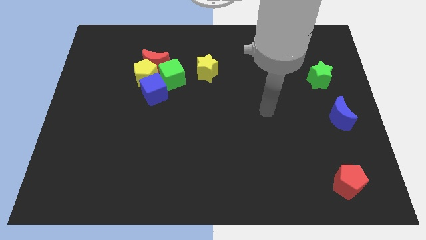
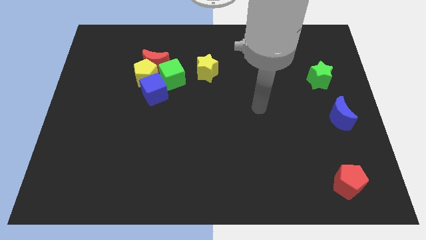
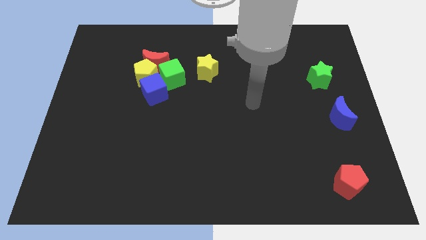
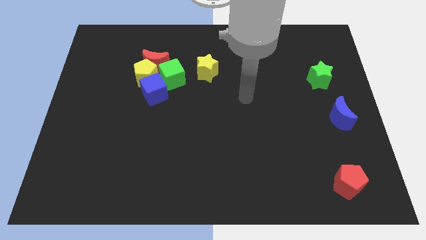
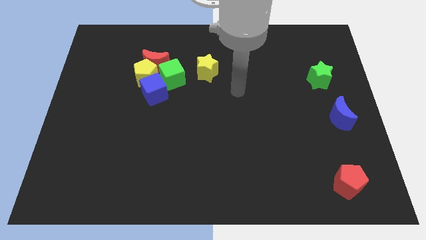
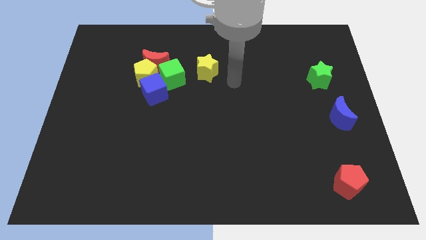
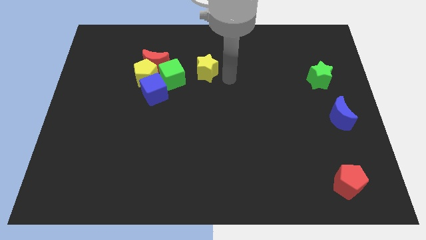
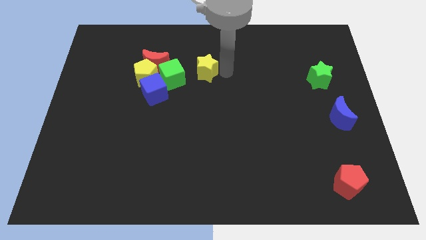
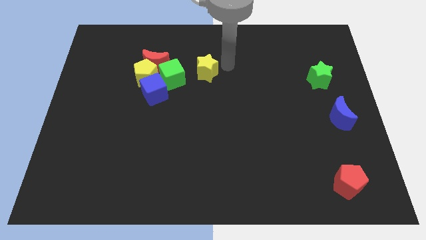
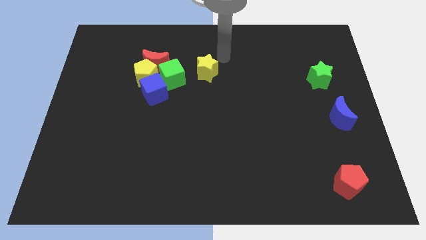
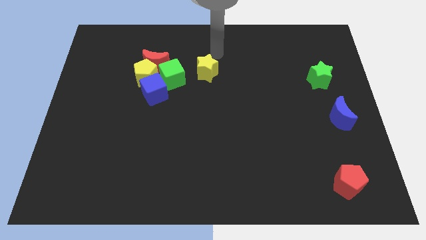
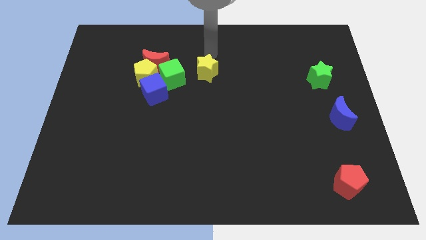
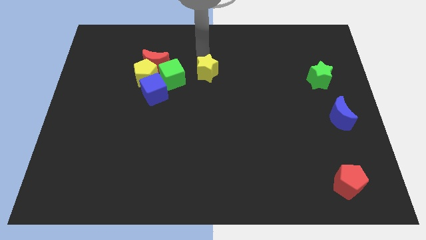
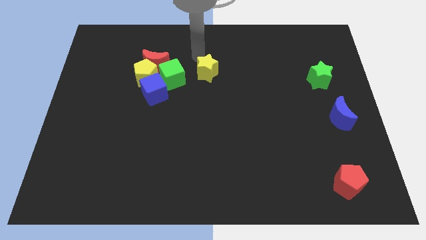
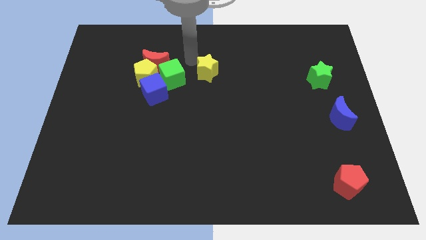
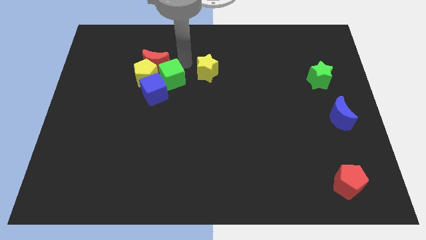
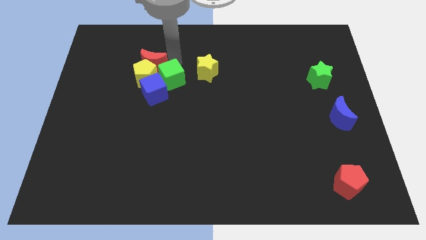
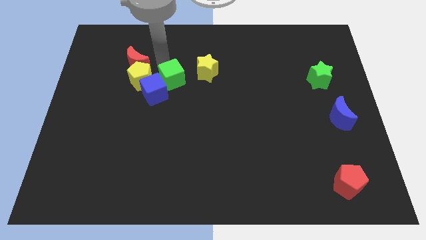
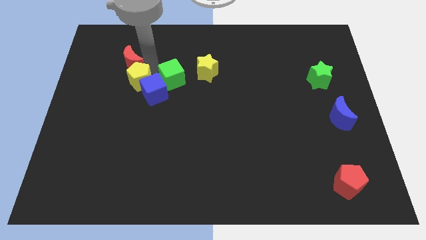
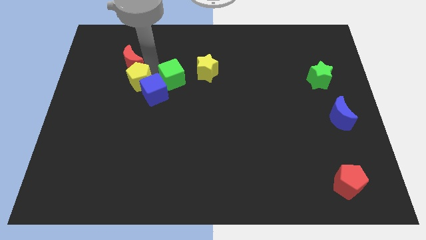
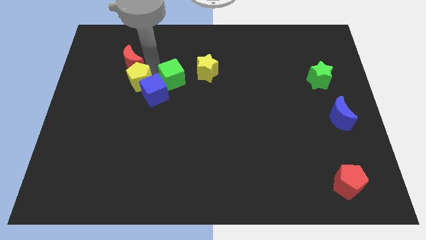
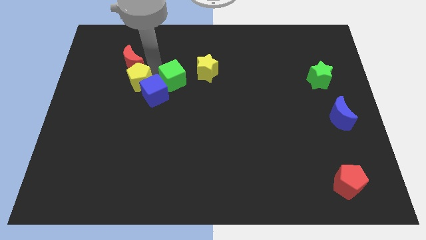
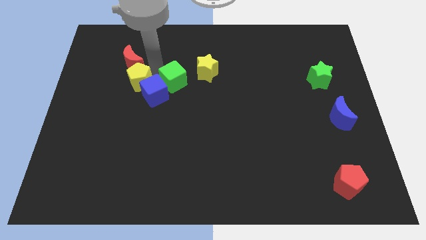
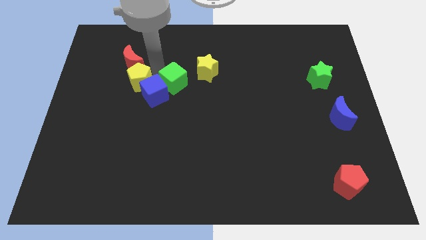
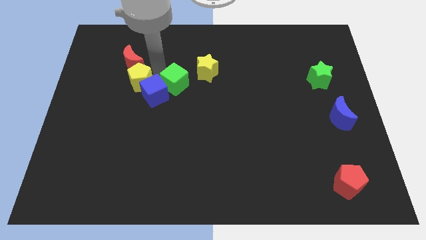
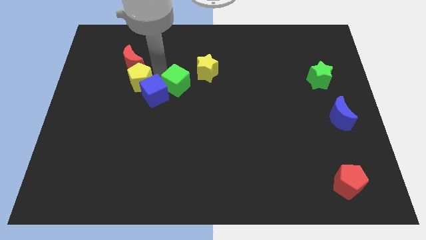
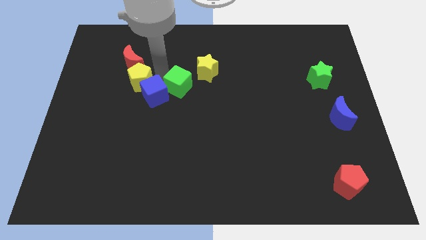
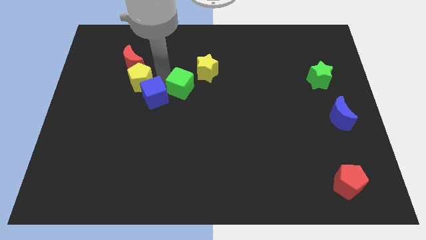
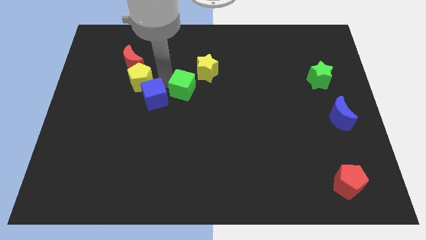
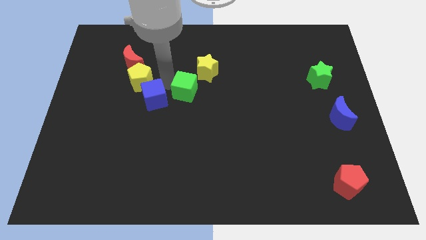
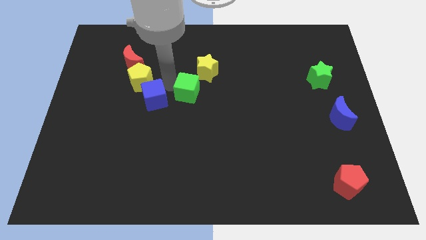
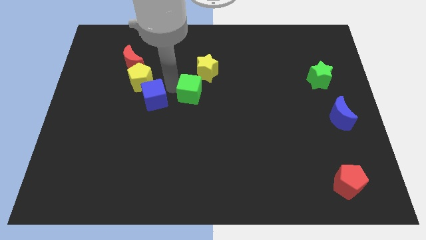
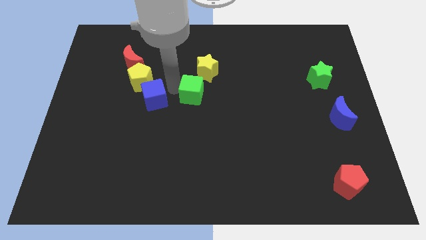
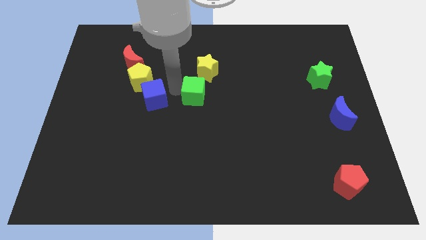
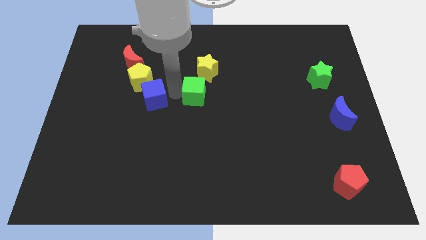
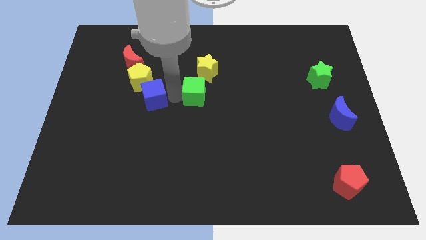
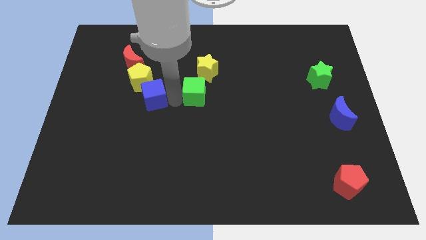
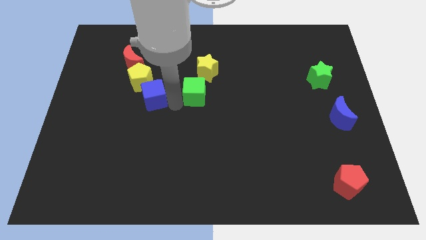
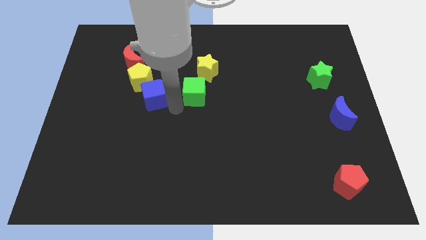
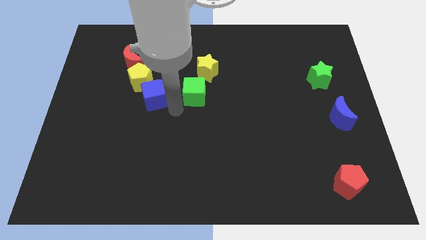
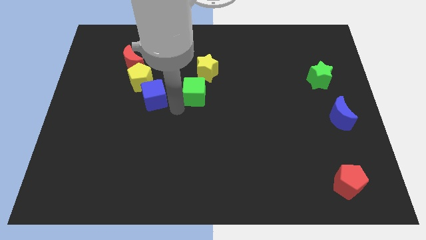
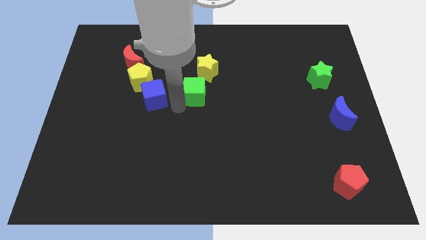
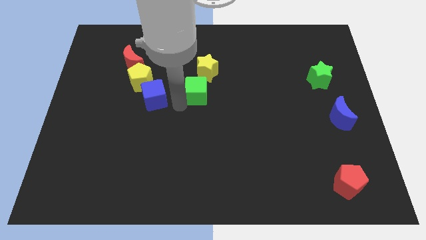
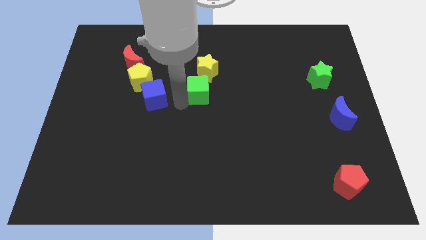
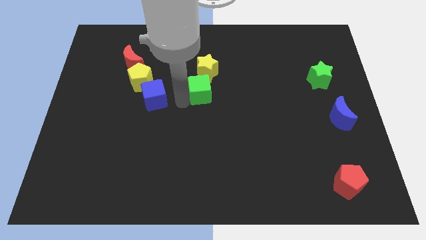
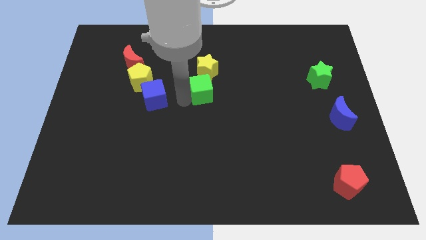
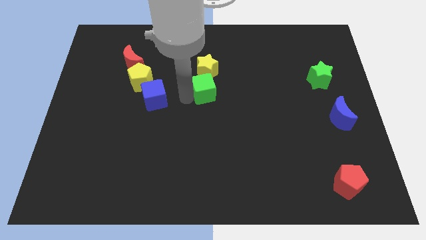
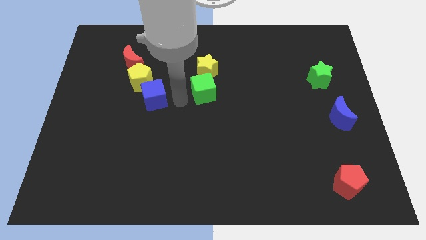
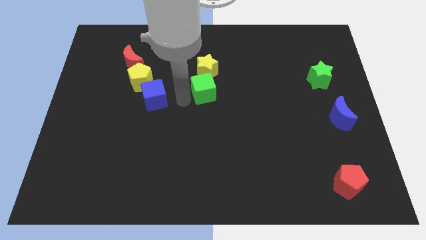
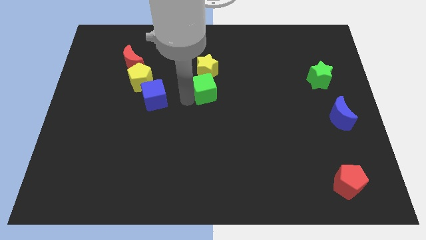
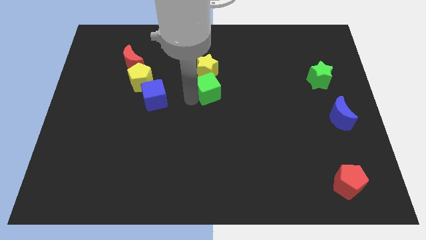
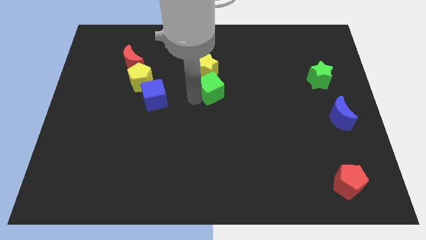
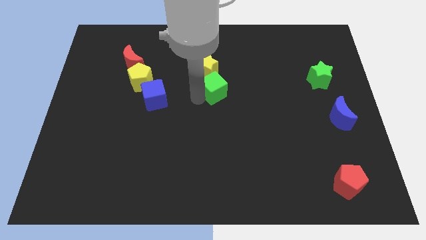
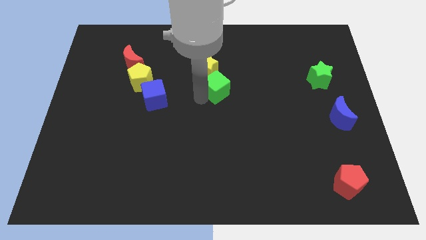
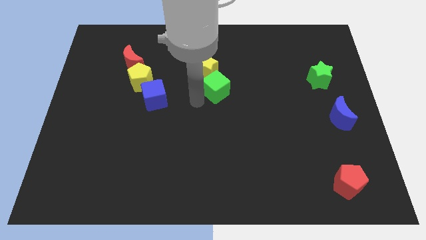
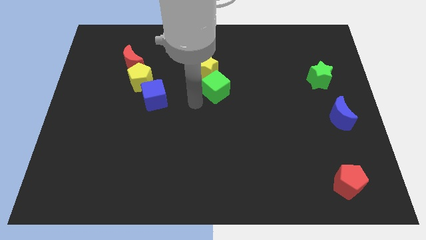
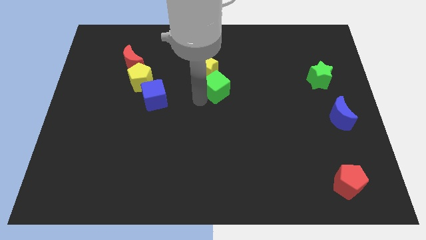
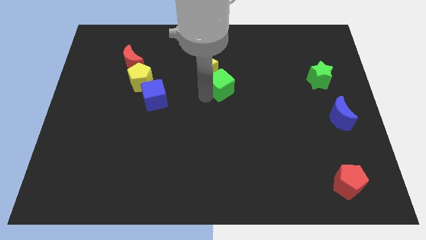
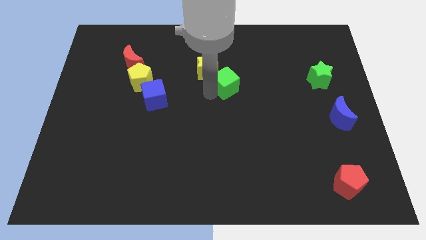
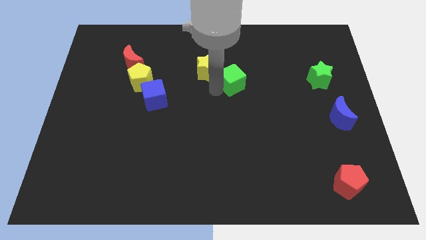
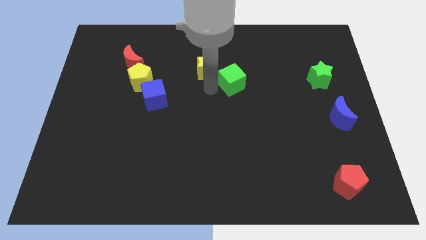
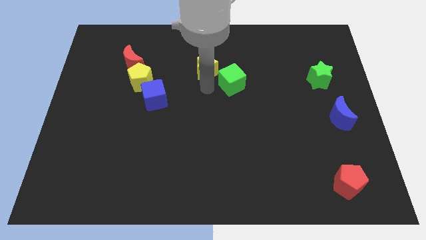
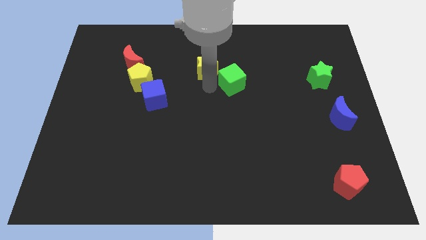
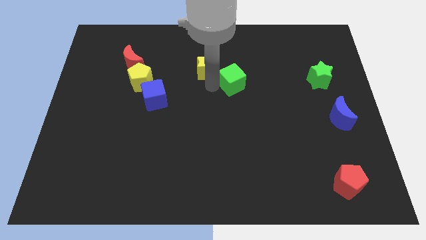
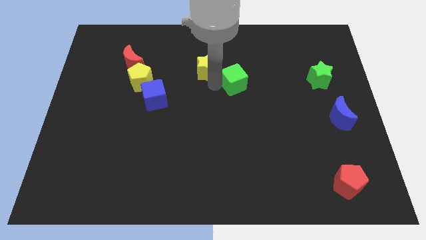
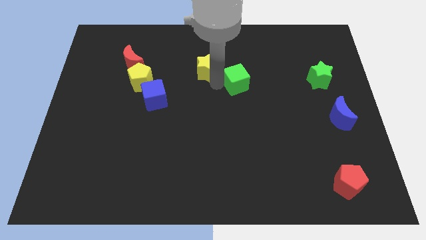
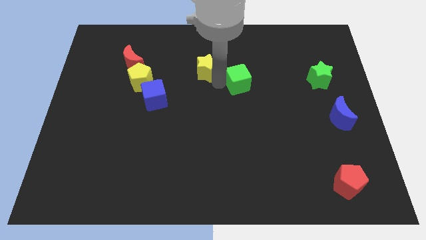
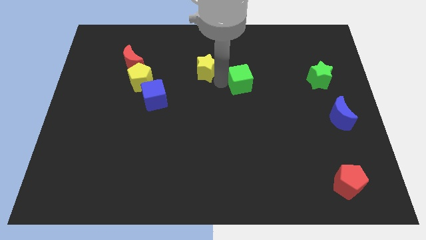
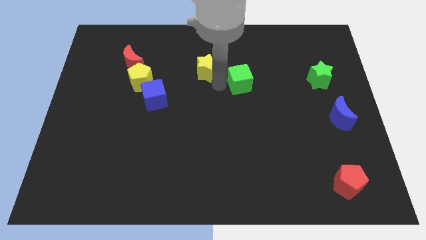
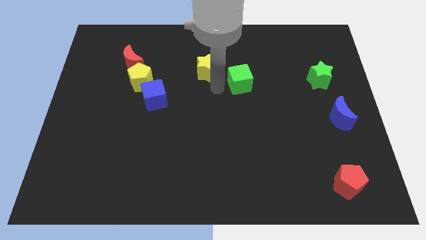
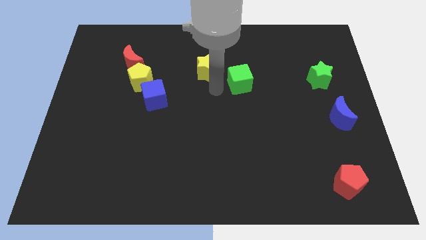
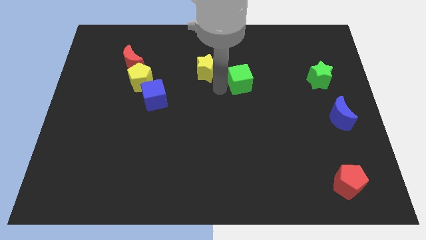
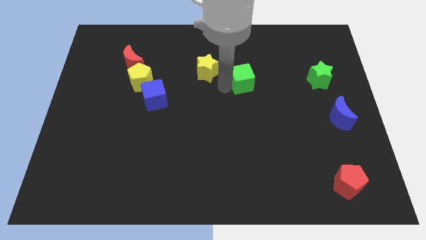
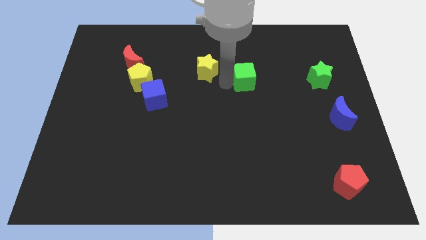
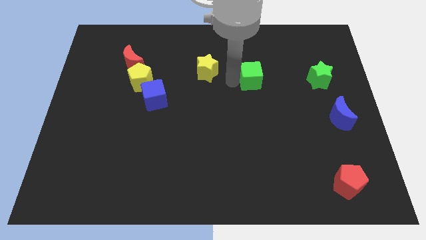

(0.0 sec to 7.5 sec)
move the green cube to the right

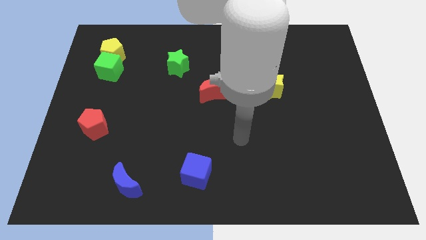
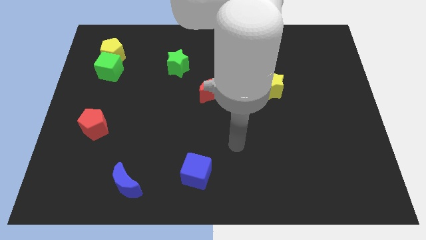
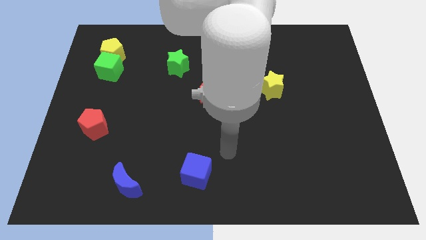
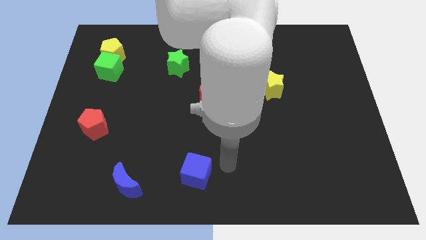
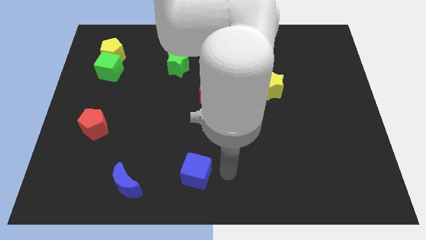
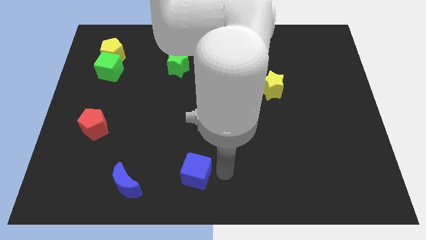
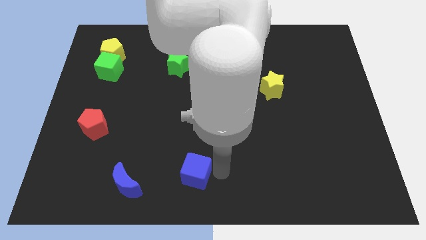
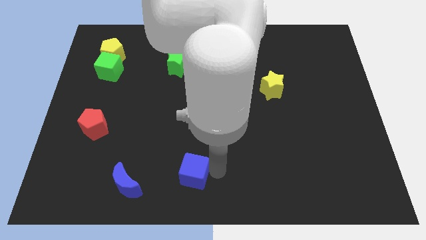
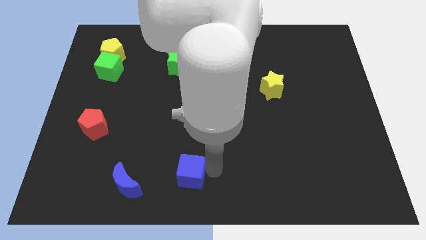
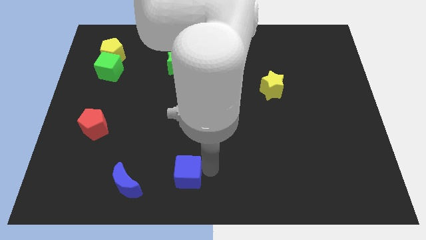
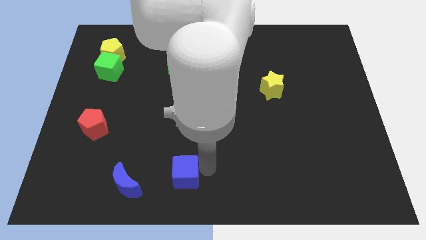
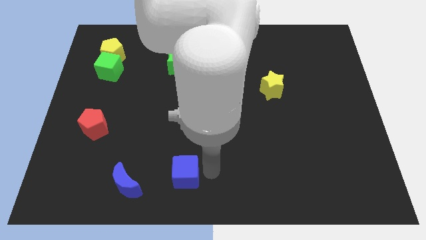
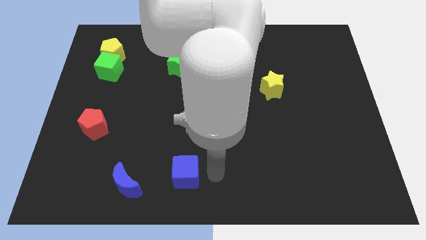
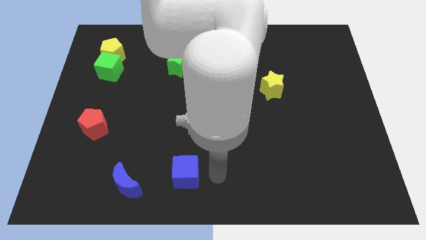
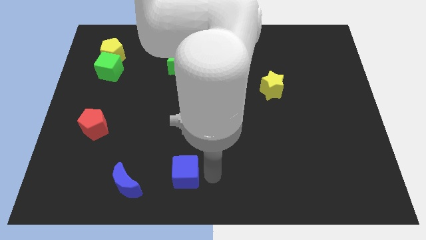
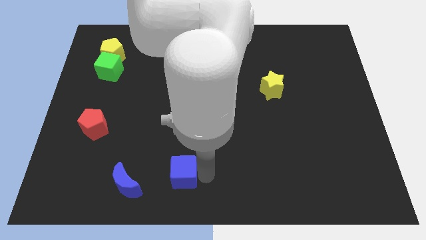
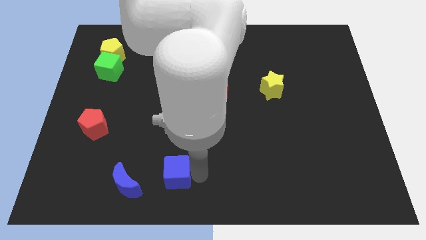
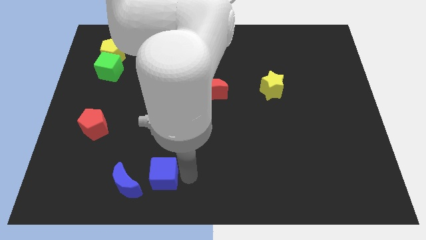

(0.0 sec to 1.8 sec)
slide the blue cube slightly left
